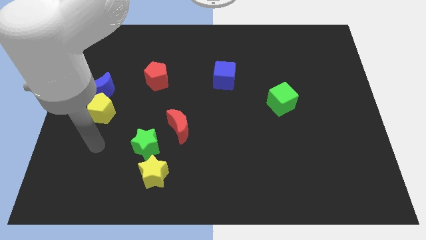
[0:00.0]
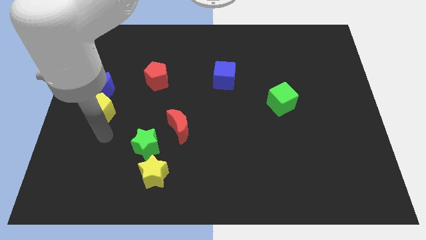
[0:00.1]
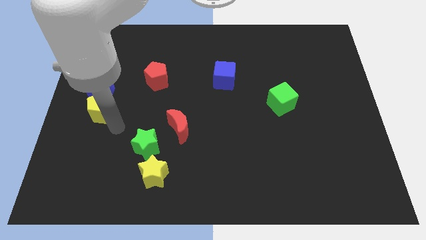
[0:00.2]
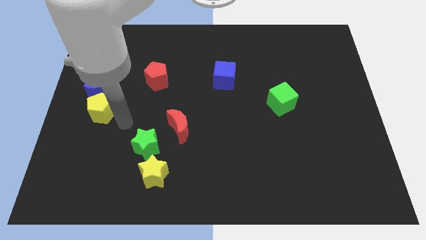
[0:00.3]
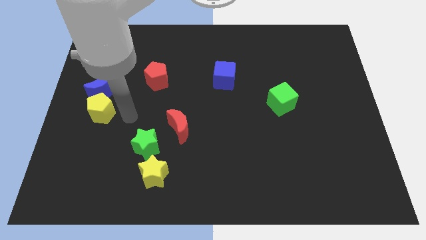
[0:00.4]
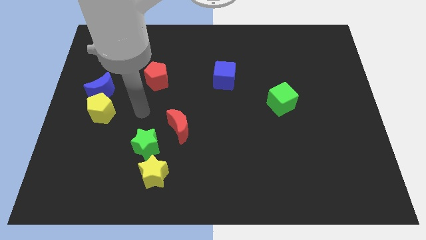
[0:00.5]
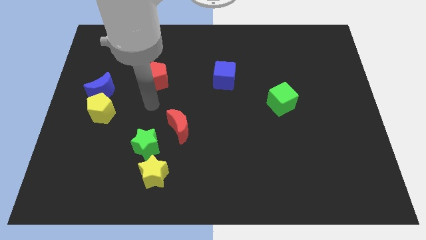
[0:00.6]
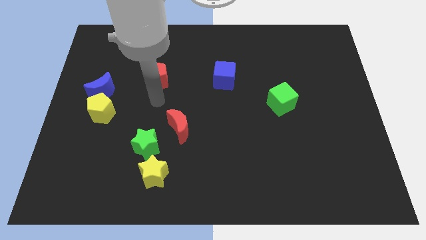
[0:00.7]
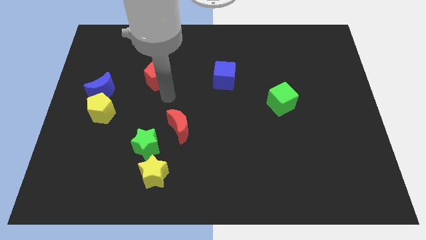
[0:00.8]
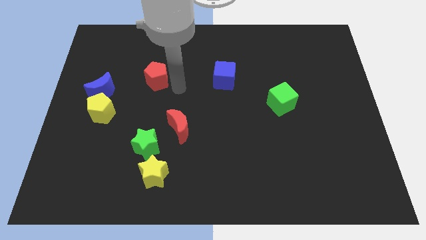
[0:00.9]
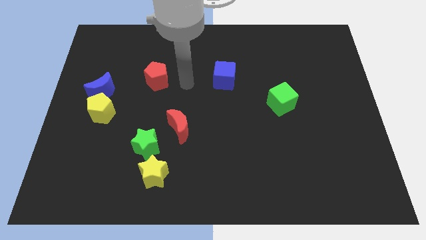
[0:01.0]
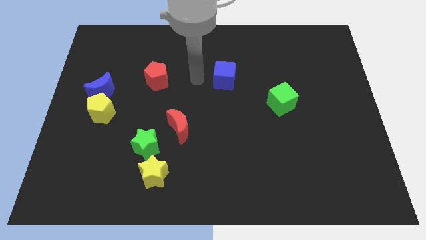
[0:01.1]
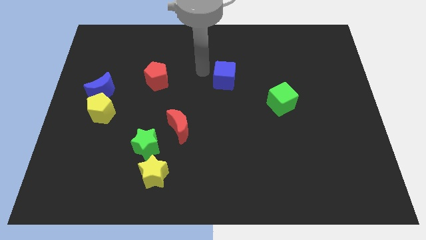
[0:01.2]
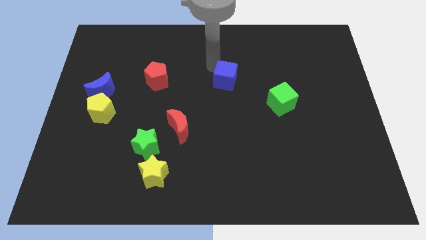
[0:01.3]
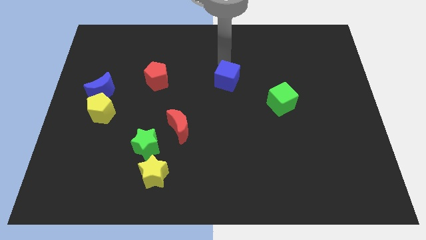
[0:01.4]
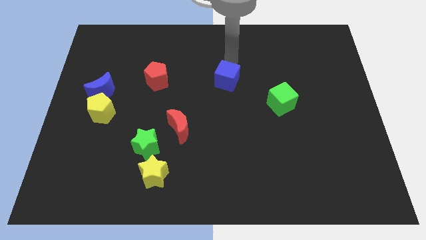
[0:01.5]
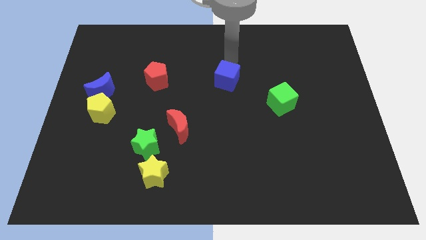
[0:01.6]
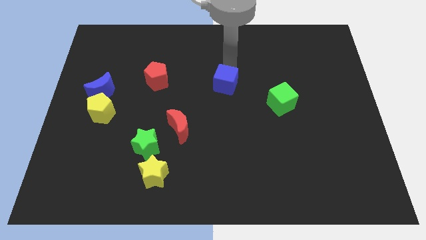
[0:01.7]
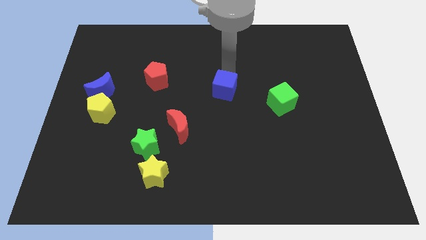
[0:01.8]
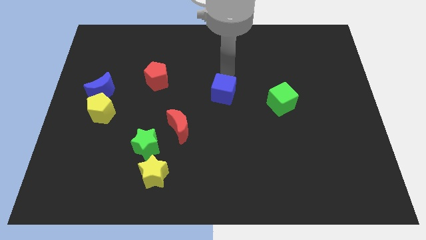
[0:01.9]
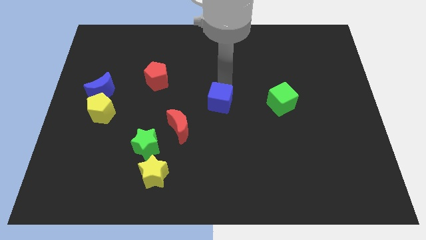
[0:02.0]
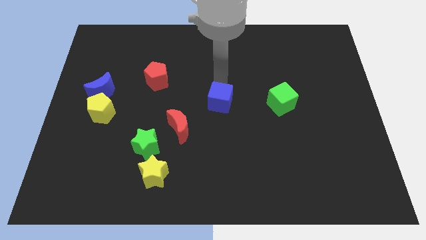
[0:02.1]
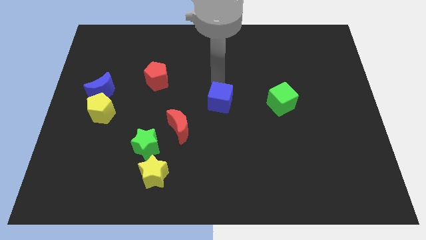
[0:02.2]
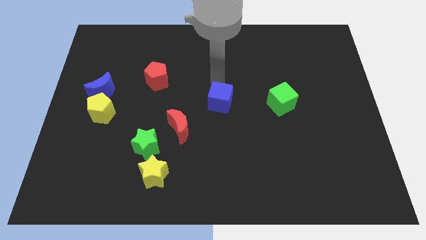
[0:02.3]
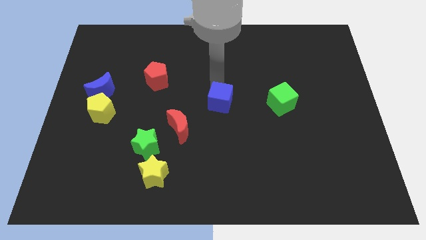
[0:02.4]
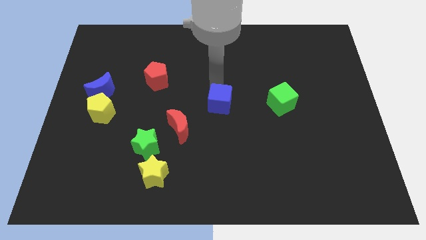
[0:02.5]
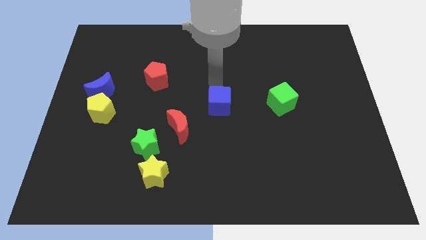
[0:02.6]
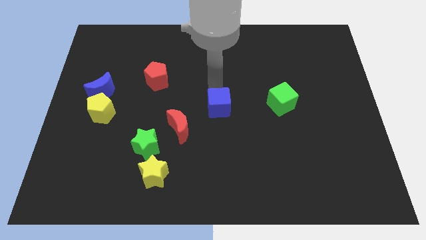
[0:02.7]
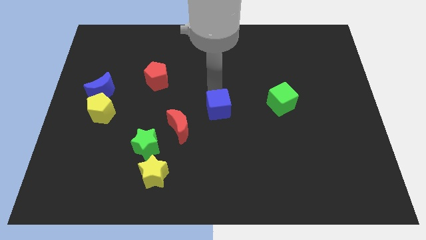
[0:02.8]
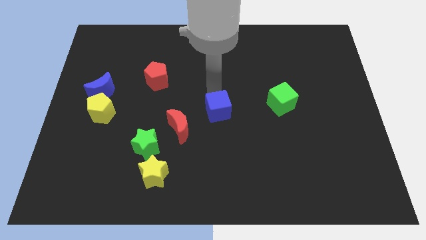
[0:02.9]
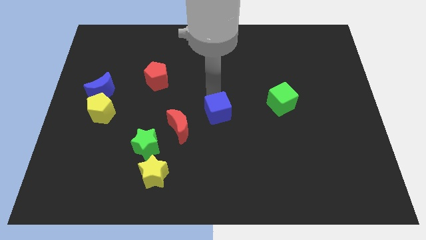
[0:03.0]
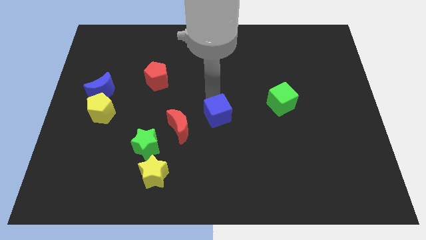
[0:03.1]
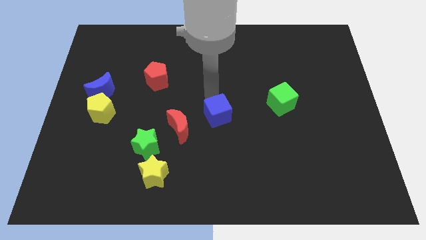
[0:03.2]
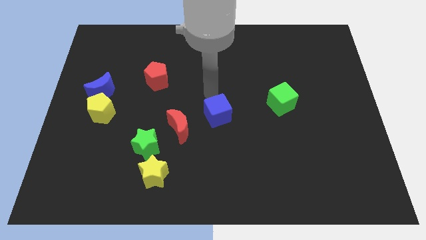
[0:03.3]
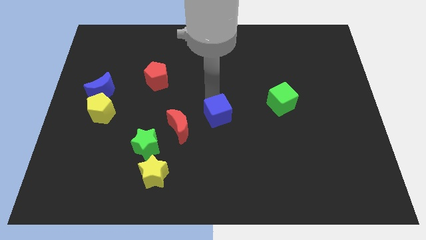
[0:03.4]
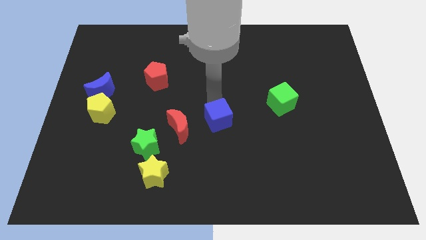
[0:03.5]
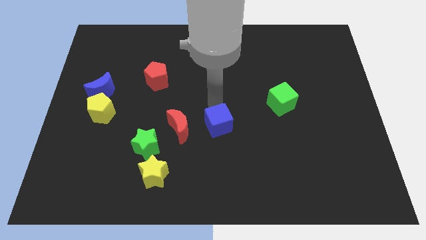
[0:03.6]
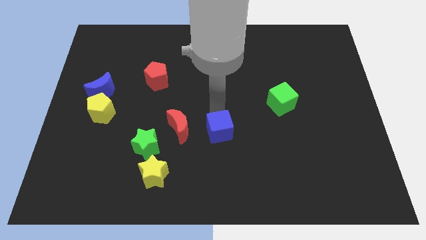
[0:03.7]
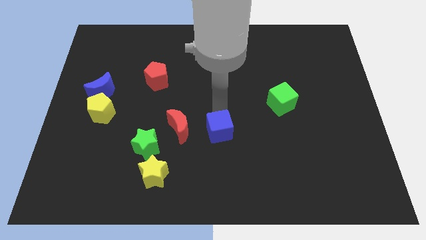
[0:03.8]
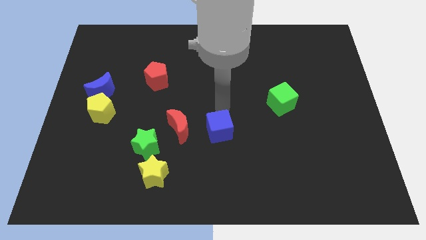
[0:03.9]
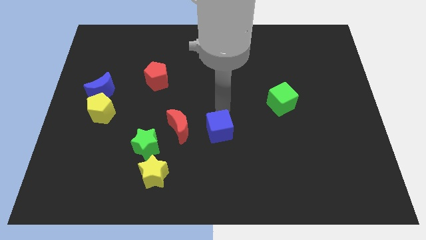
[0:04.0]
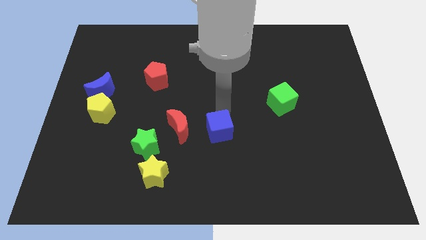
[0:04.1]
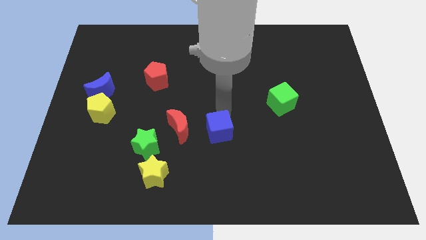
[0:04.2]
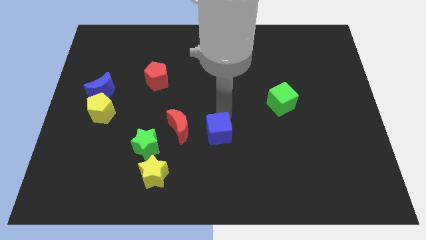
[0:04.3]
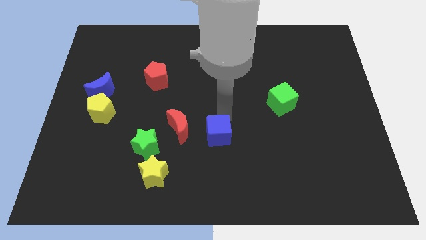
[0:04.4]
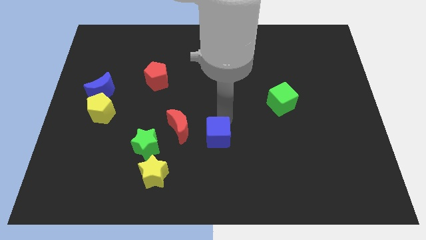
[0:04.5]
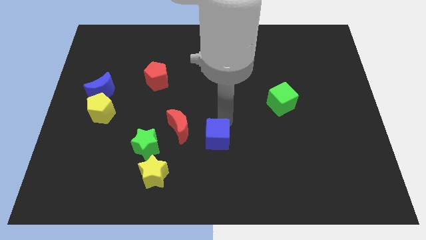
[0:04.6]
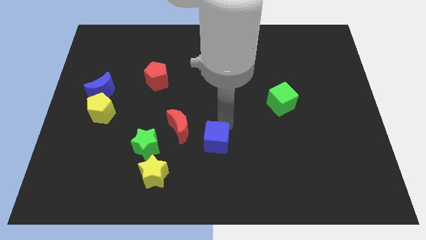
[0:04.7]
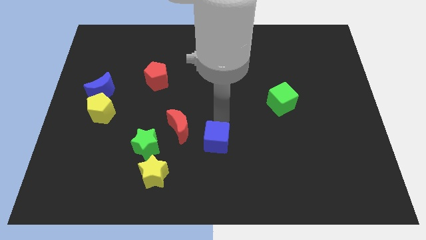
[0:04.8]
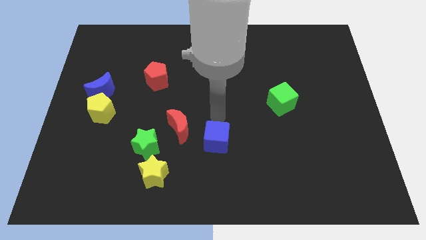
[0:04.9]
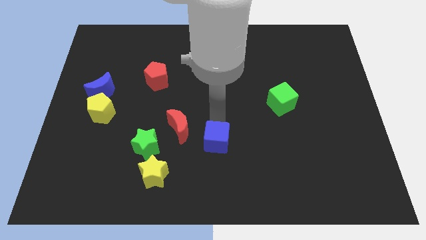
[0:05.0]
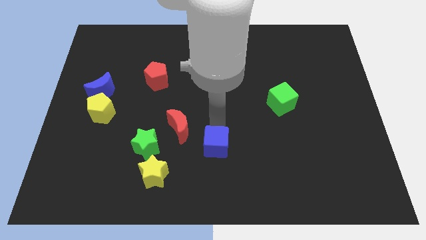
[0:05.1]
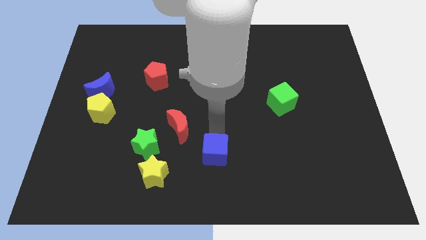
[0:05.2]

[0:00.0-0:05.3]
push the blue cube to the bottom side

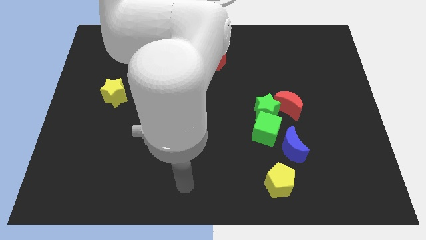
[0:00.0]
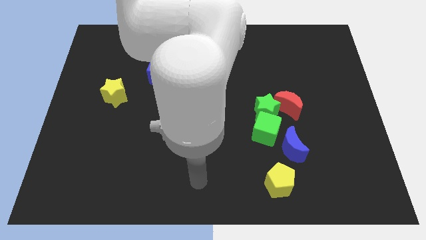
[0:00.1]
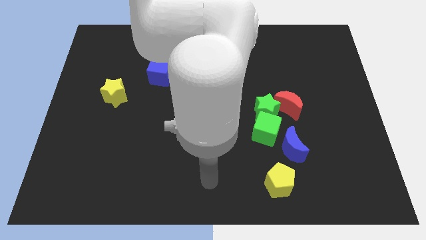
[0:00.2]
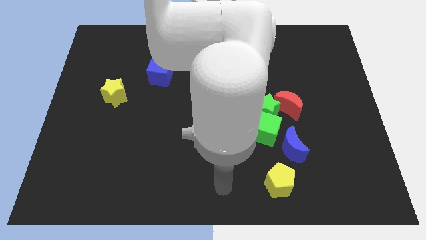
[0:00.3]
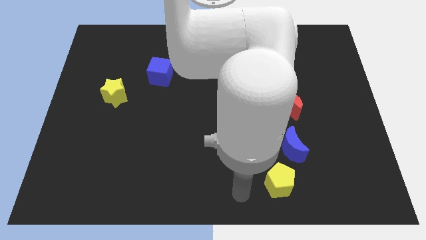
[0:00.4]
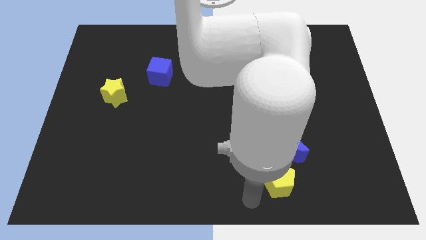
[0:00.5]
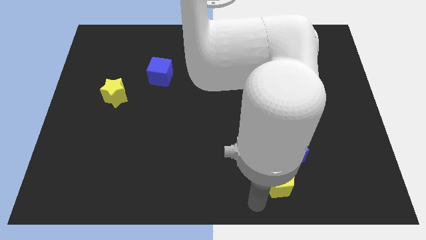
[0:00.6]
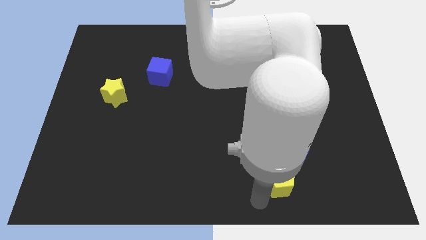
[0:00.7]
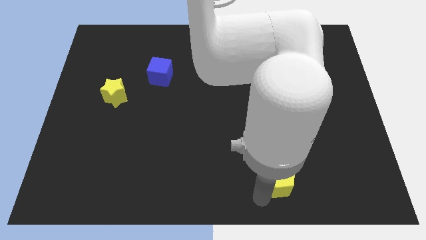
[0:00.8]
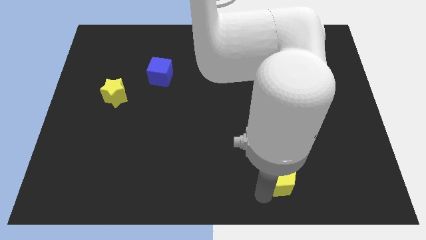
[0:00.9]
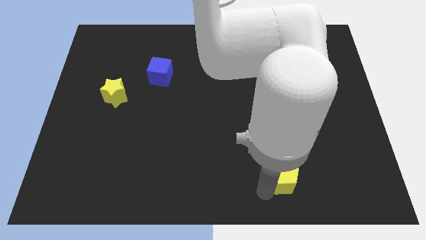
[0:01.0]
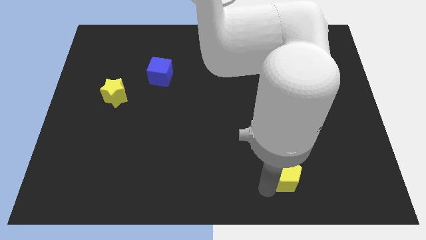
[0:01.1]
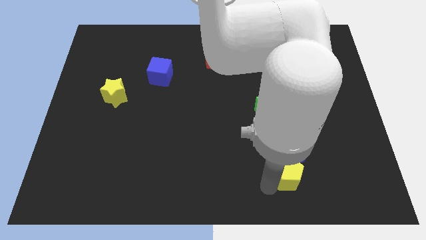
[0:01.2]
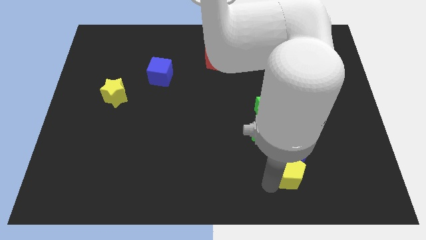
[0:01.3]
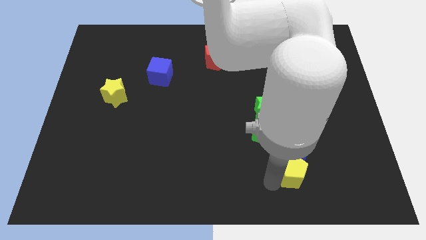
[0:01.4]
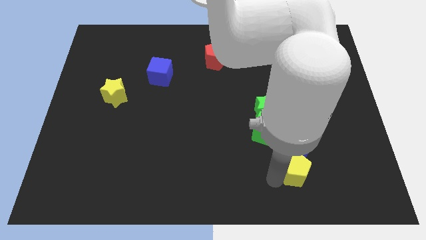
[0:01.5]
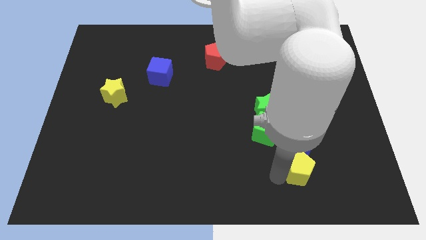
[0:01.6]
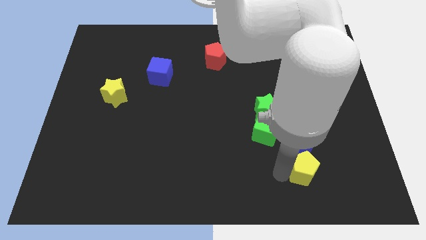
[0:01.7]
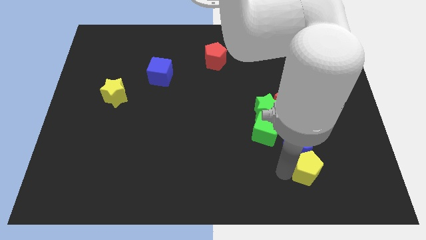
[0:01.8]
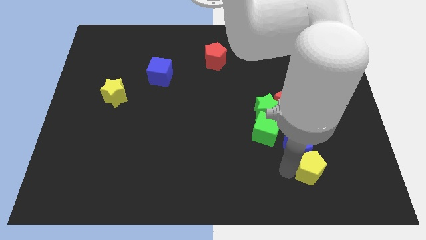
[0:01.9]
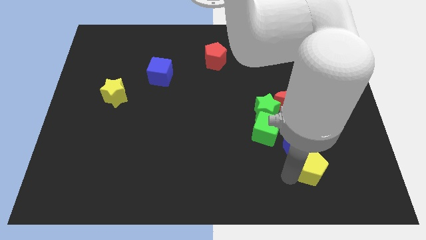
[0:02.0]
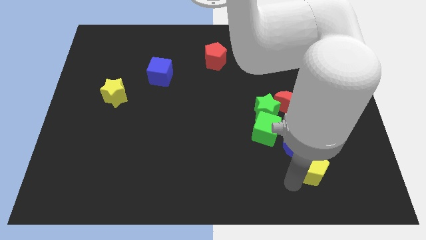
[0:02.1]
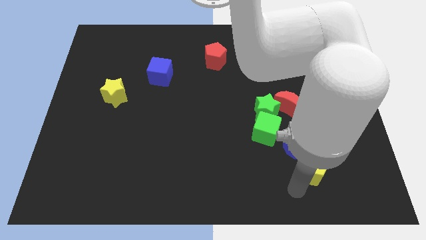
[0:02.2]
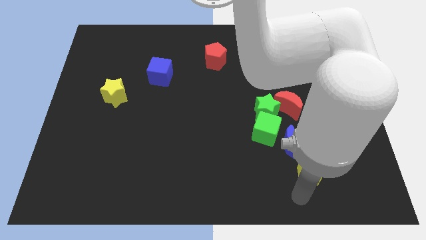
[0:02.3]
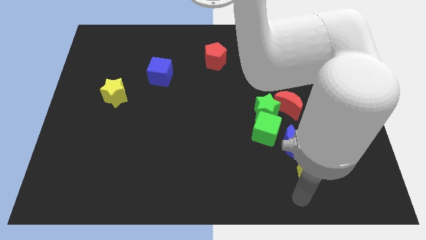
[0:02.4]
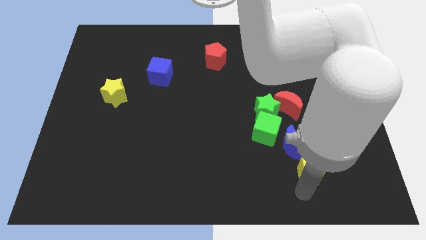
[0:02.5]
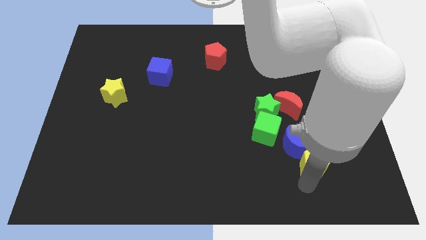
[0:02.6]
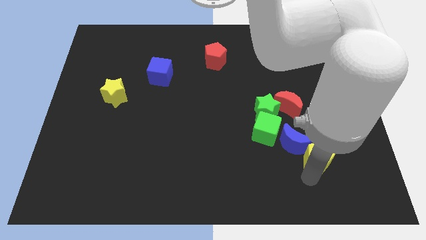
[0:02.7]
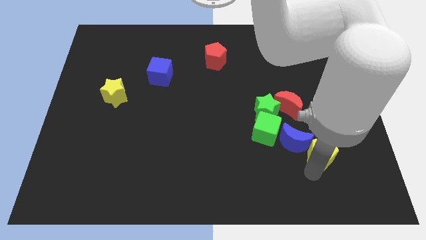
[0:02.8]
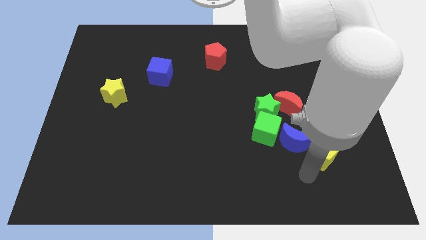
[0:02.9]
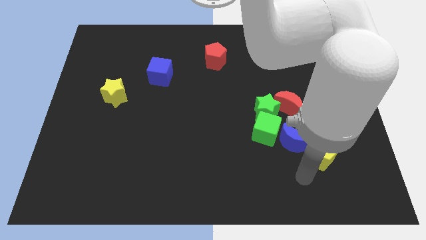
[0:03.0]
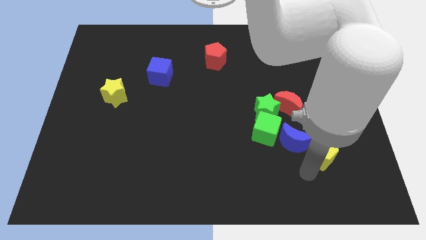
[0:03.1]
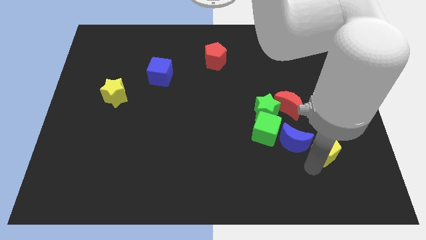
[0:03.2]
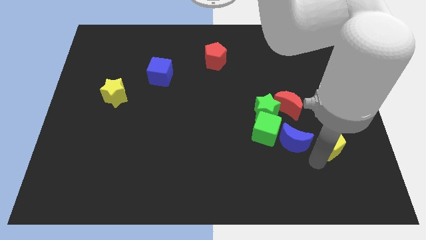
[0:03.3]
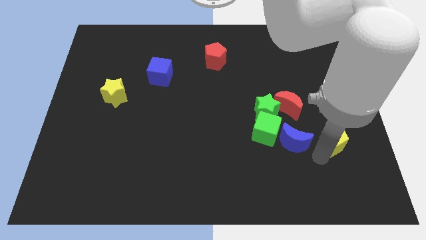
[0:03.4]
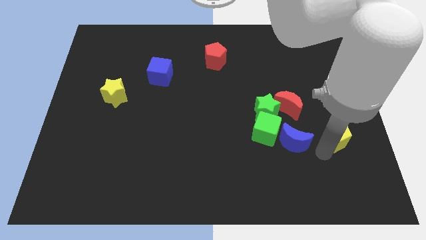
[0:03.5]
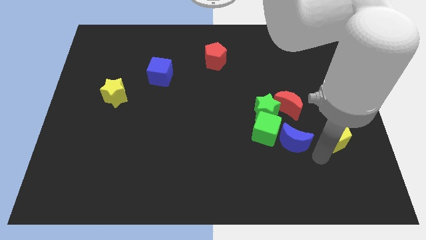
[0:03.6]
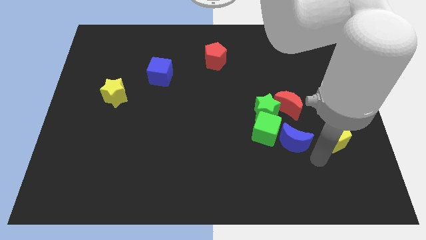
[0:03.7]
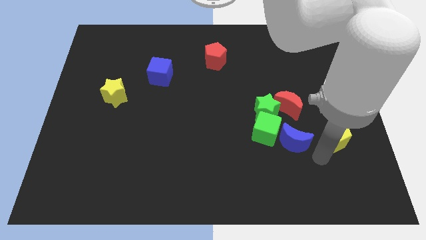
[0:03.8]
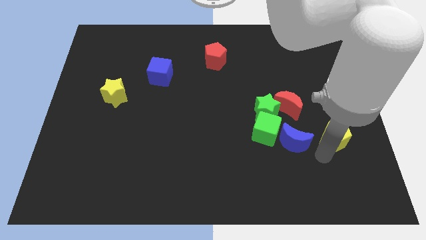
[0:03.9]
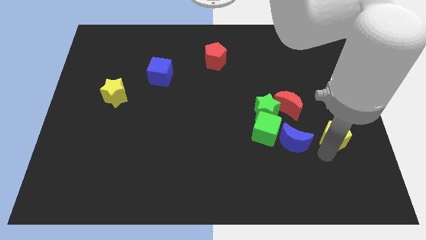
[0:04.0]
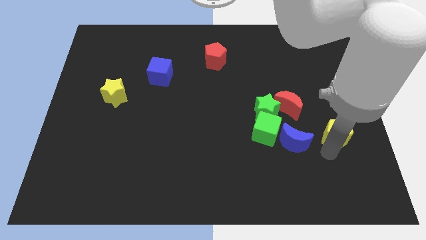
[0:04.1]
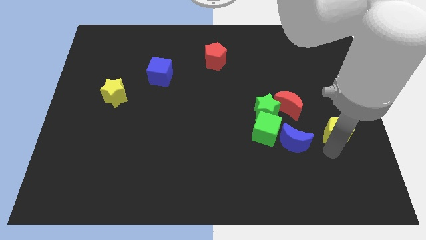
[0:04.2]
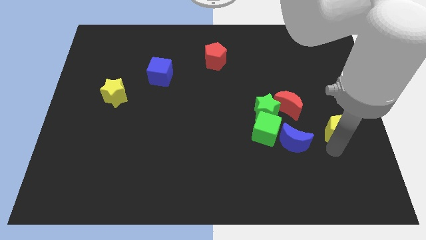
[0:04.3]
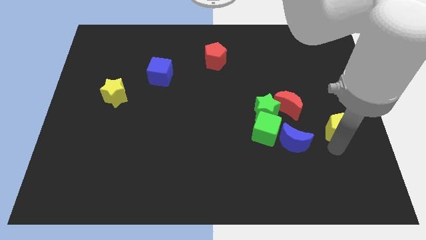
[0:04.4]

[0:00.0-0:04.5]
push the yellow pentagon to the center right
